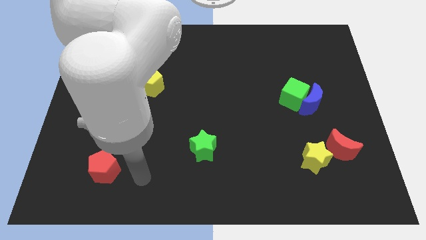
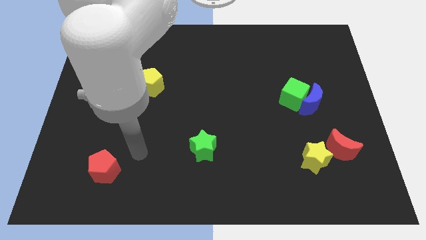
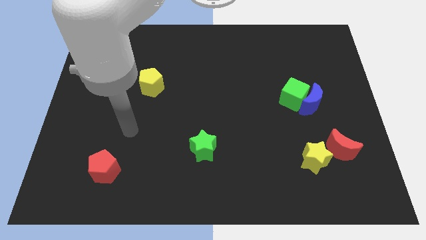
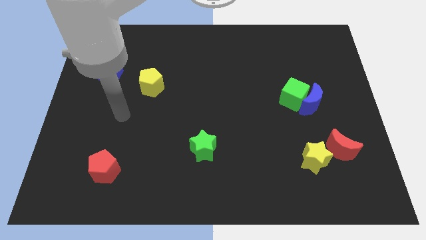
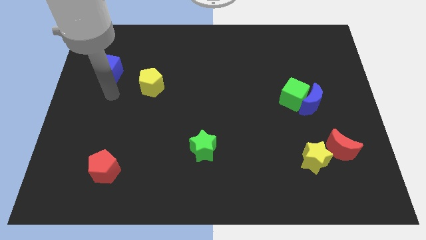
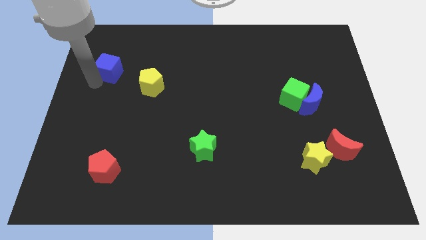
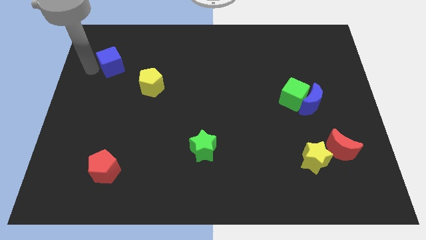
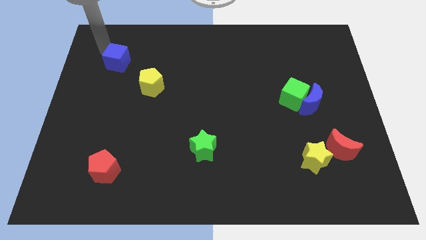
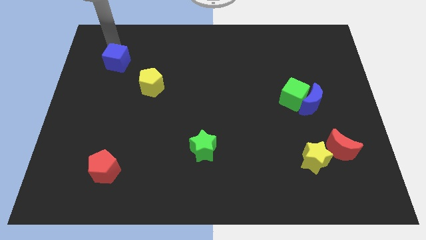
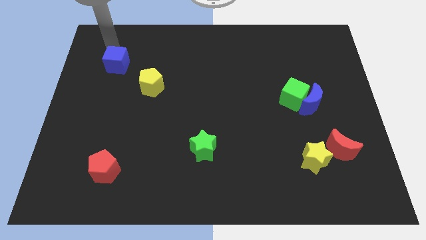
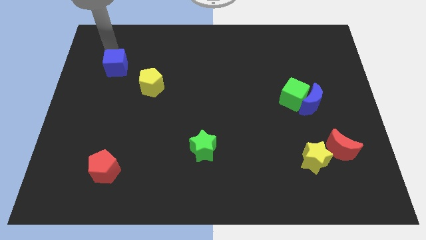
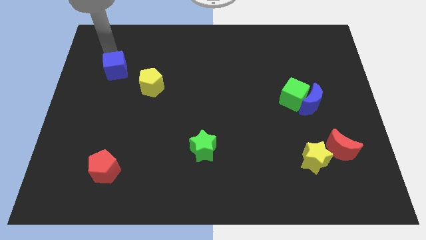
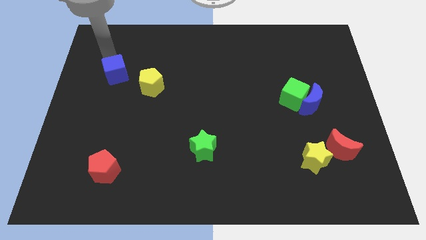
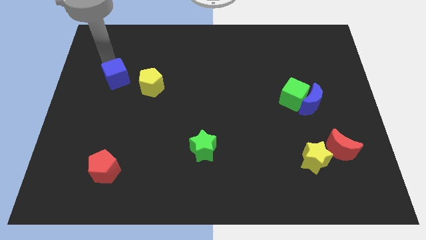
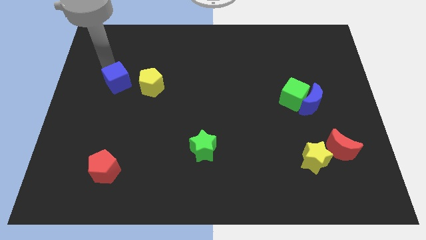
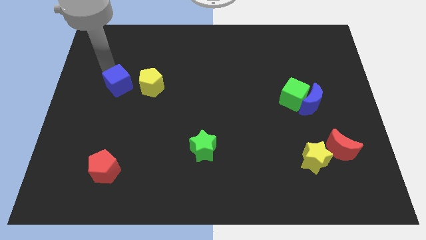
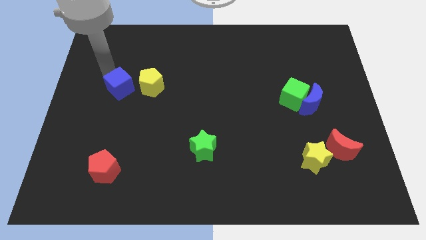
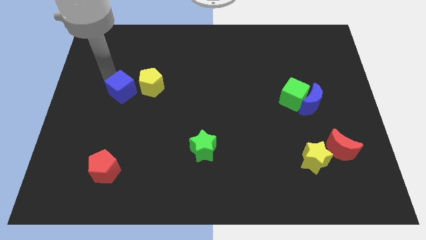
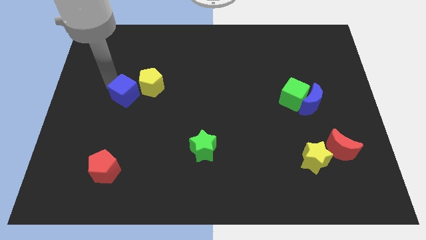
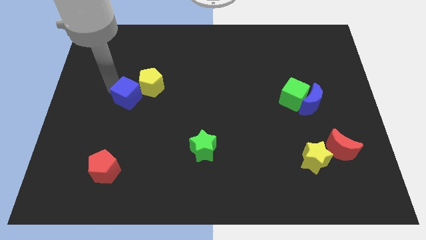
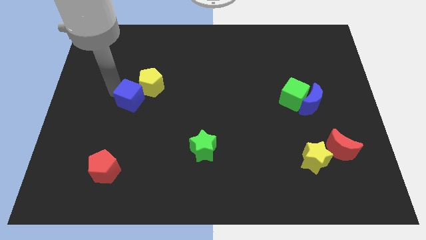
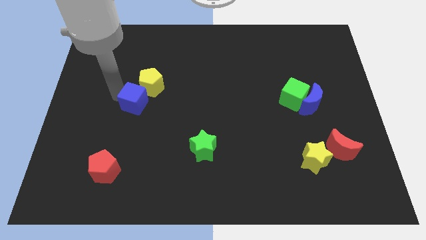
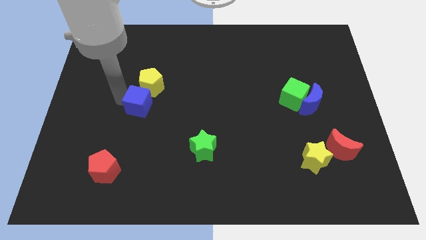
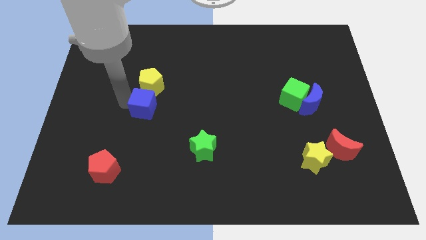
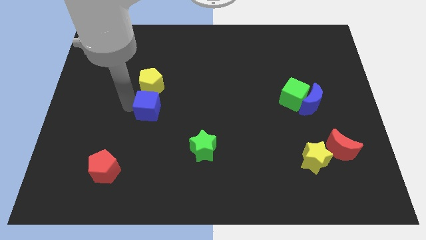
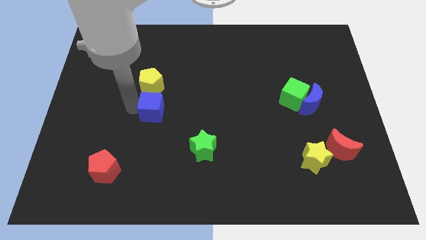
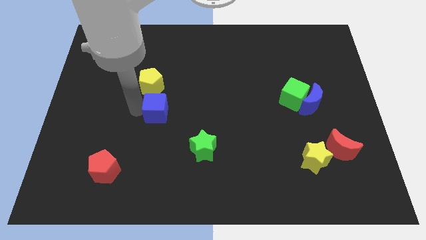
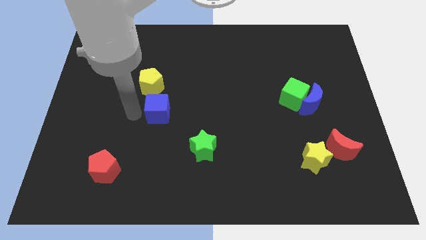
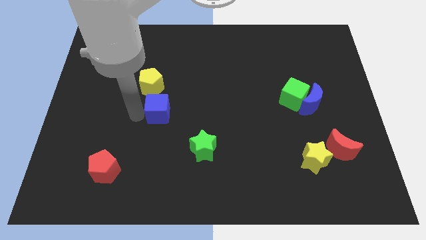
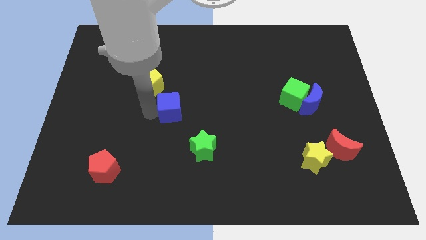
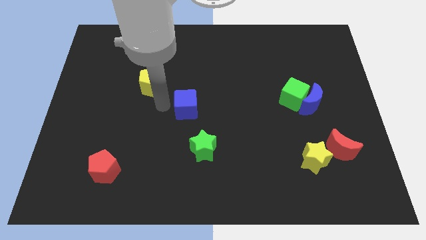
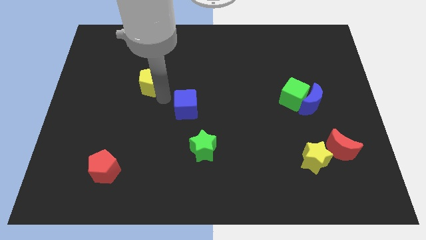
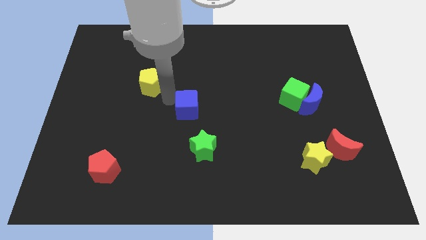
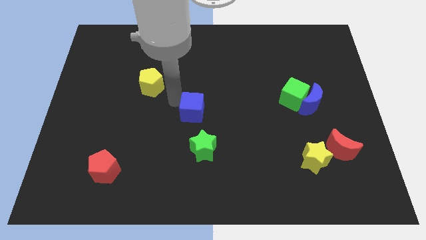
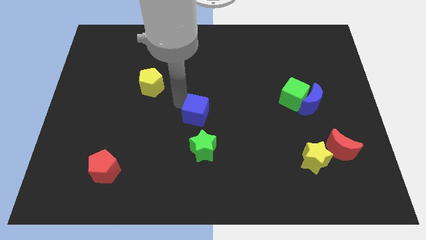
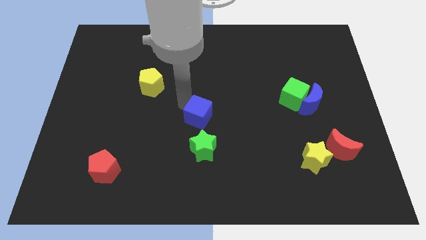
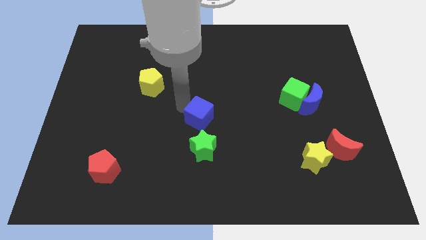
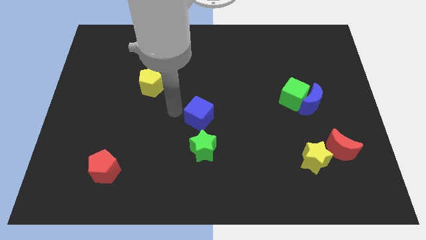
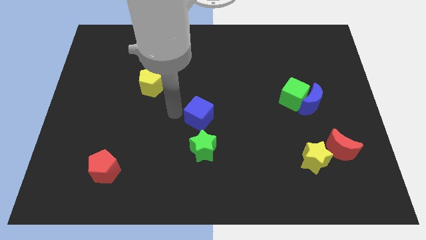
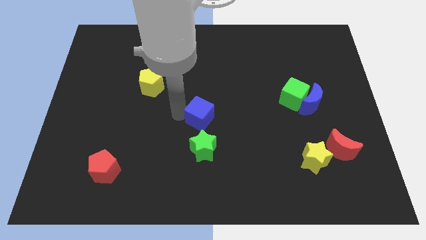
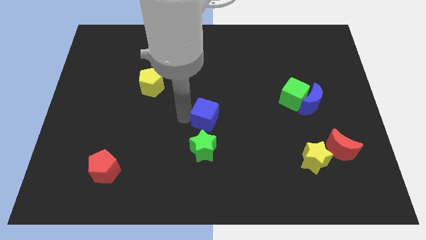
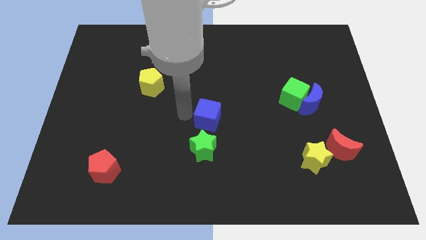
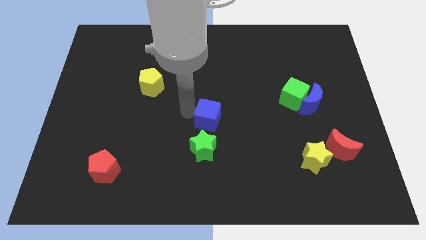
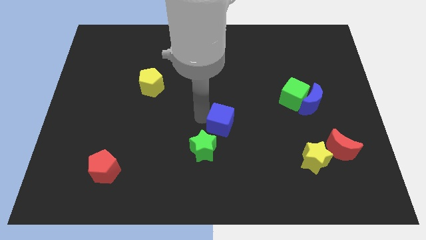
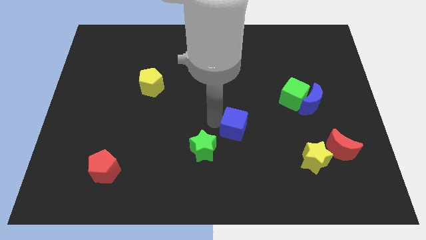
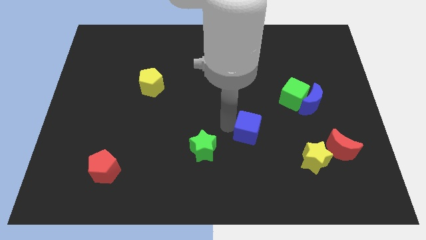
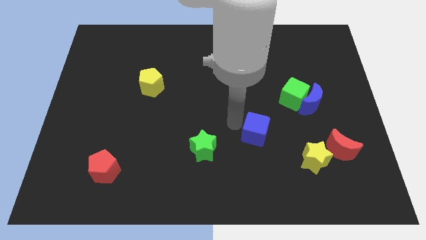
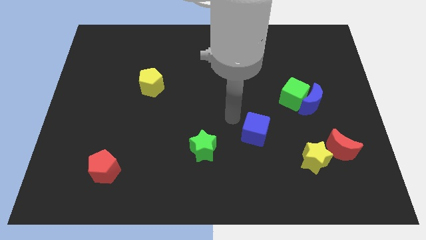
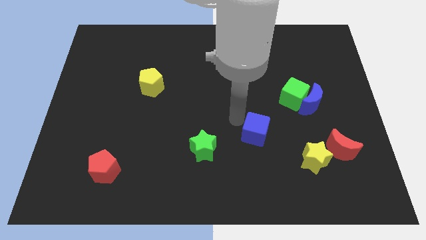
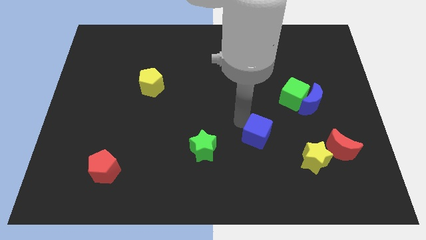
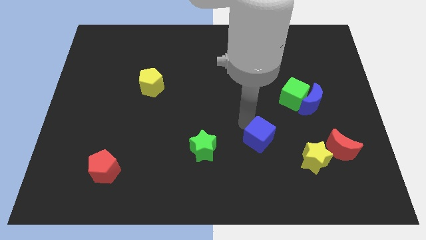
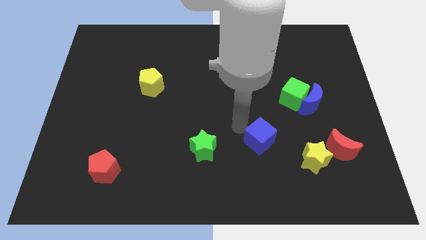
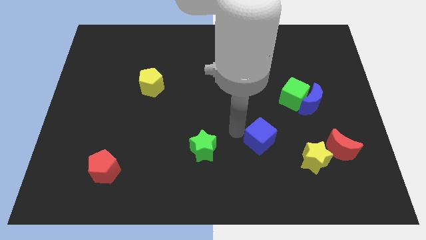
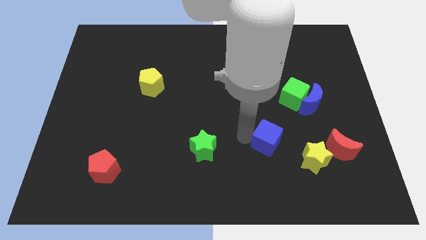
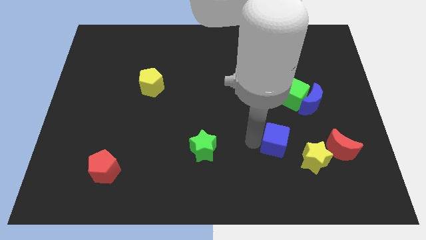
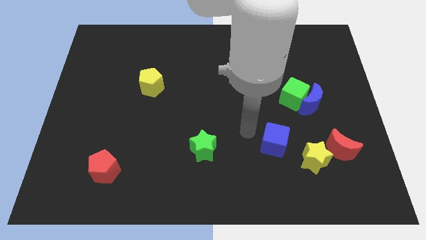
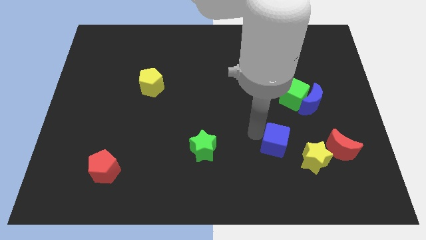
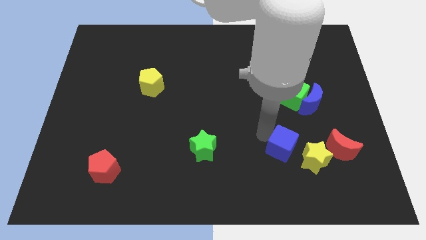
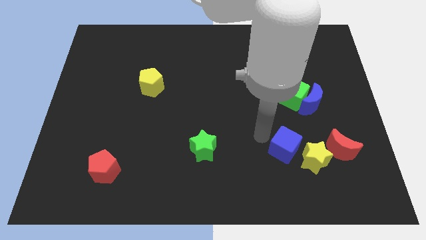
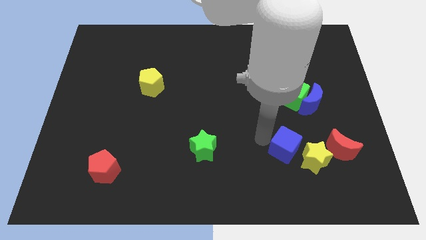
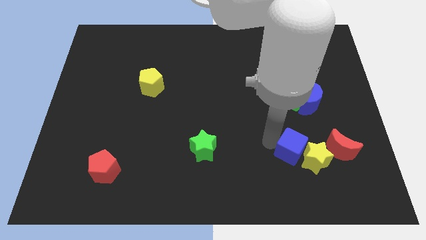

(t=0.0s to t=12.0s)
slide the blue cube next to the yellow star

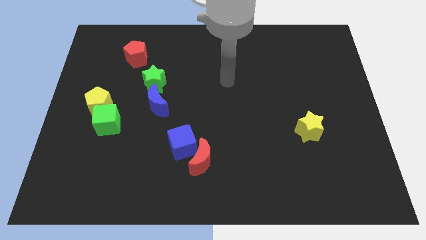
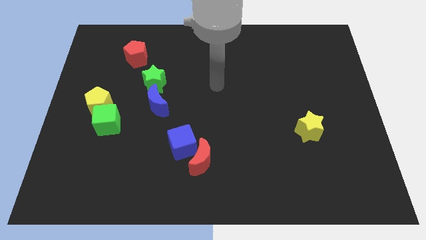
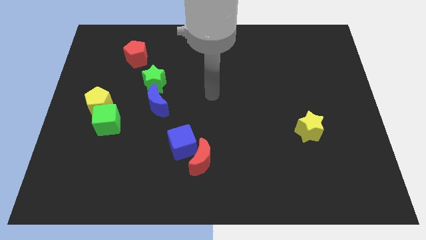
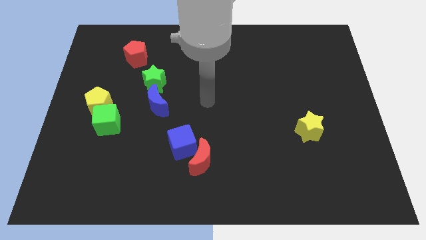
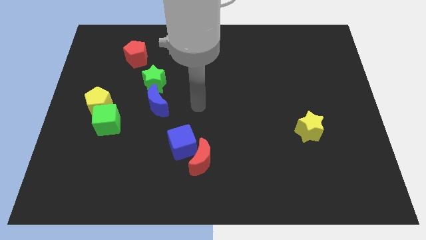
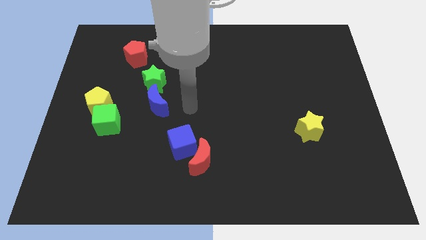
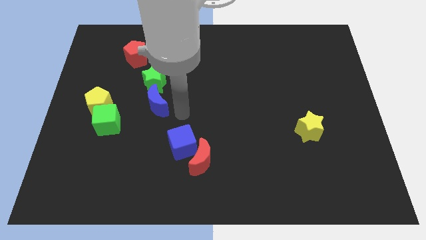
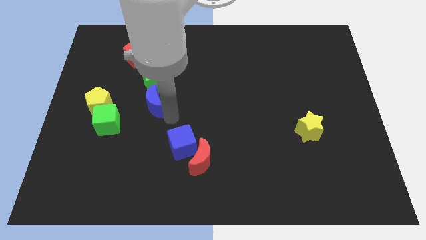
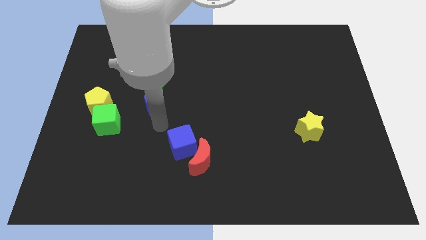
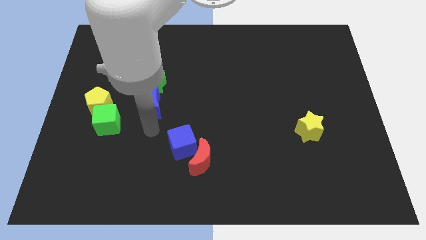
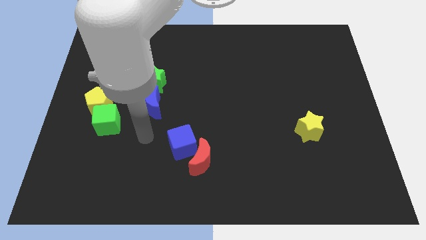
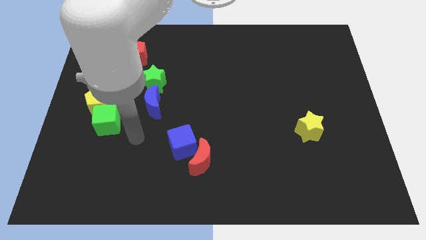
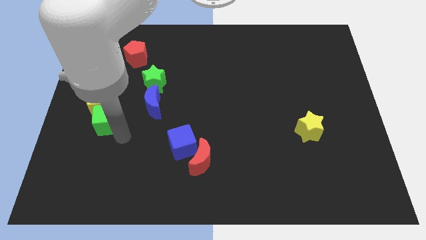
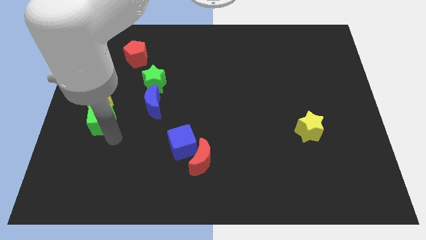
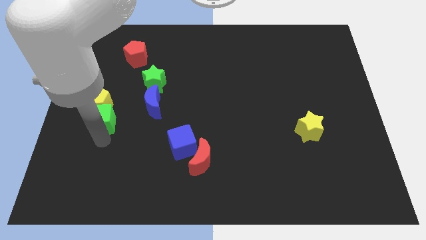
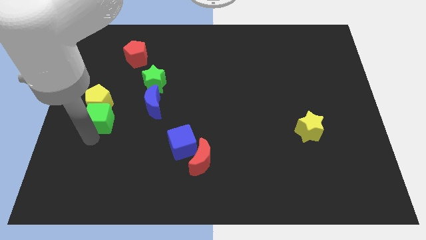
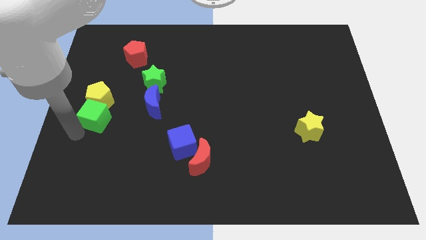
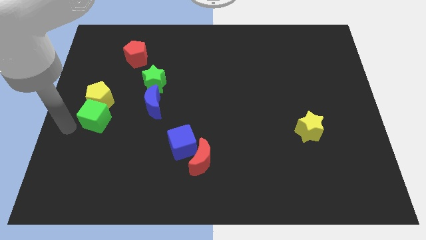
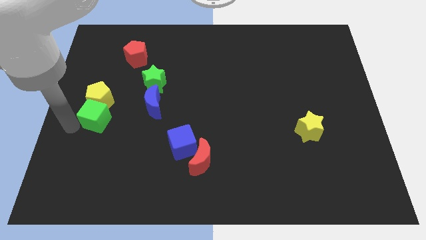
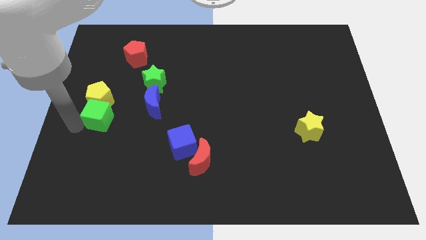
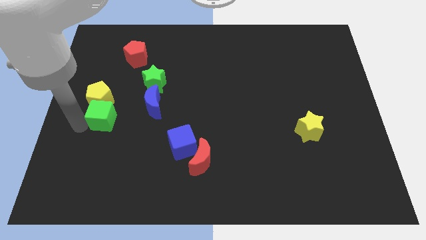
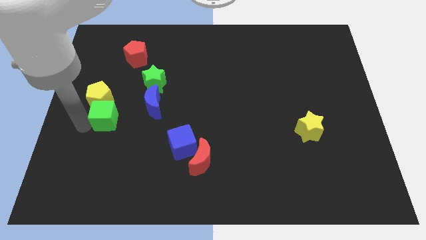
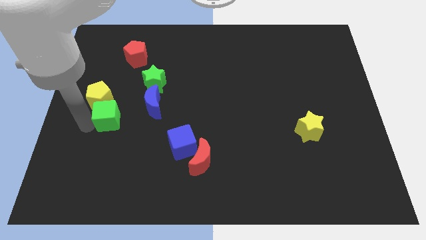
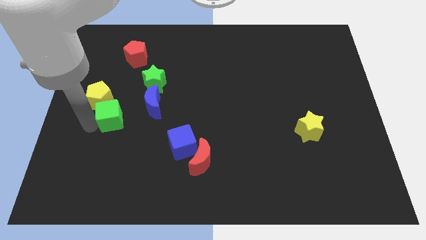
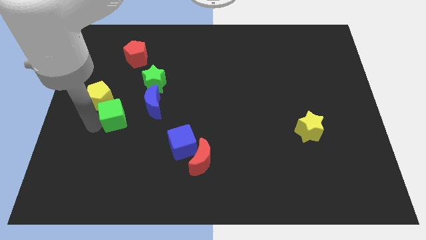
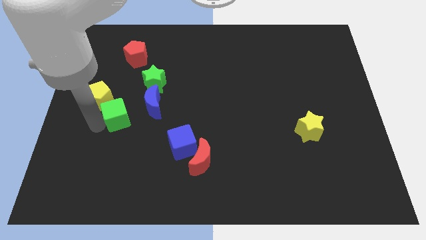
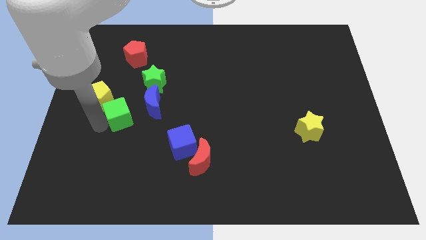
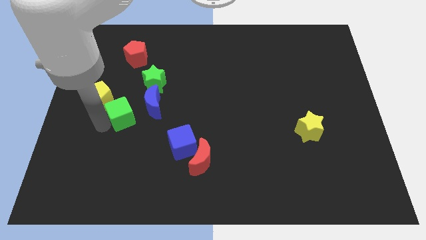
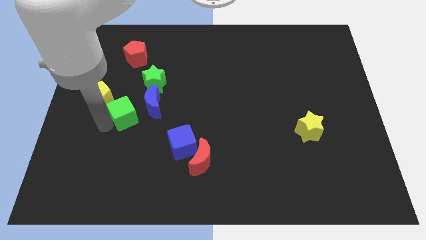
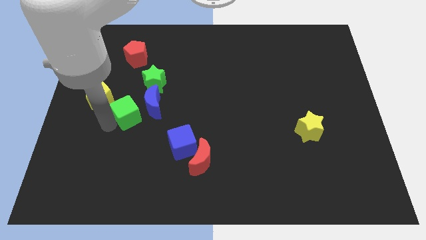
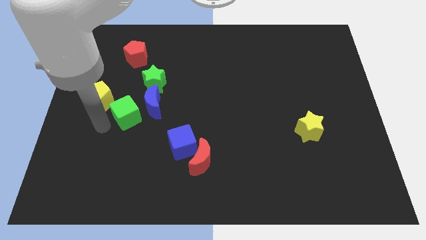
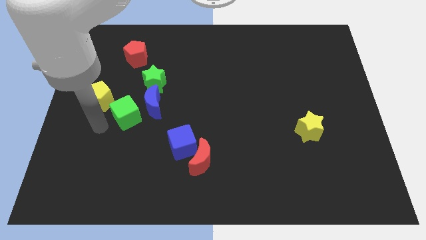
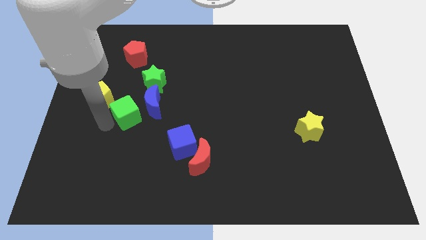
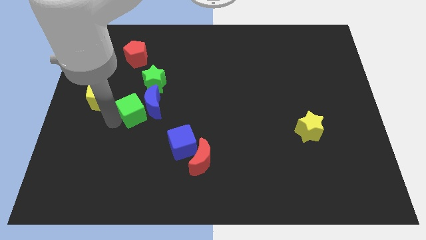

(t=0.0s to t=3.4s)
move the green cube close to the blue moon
